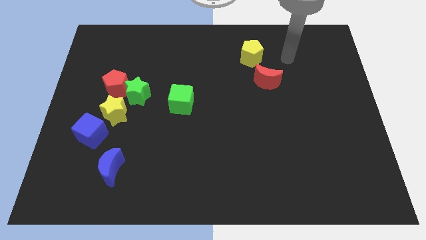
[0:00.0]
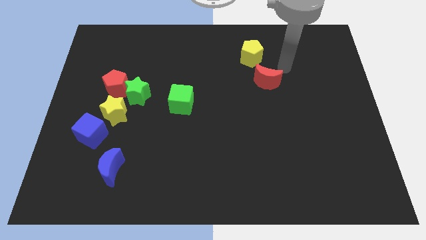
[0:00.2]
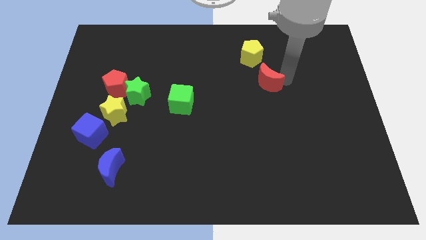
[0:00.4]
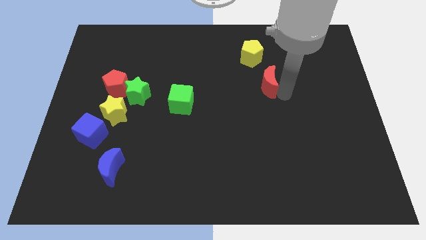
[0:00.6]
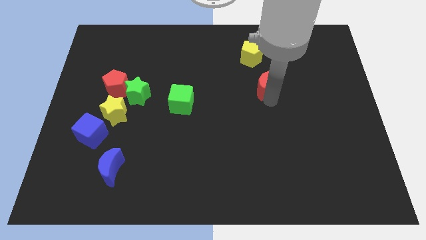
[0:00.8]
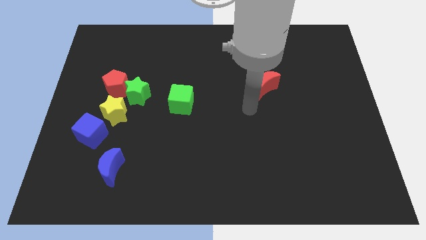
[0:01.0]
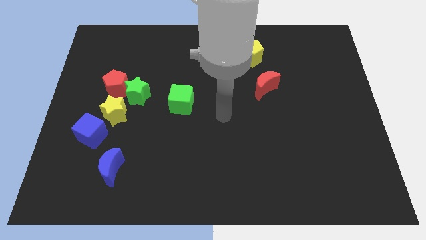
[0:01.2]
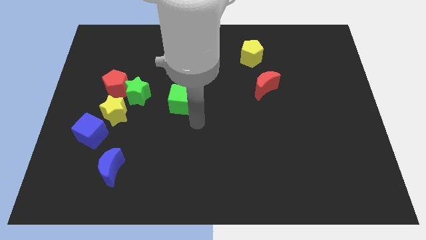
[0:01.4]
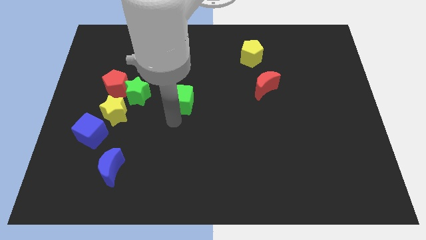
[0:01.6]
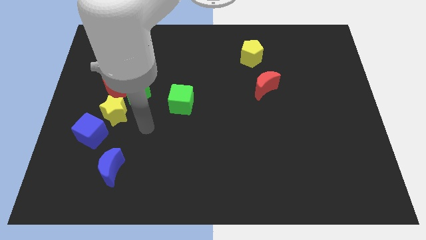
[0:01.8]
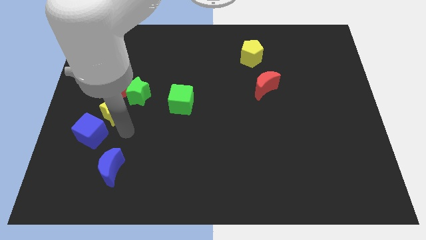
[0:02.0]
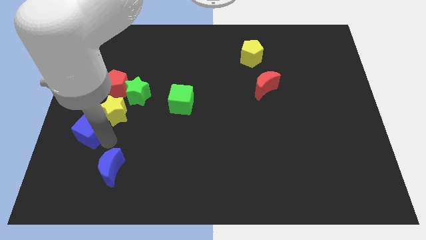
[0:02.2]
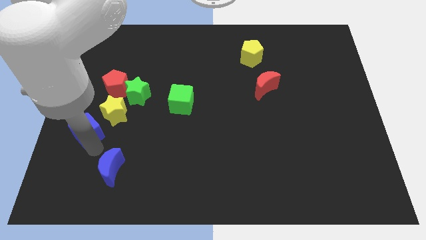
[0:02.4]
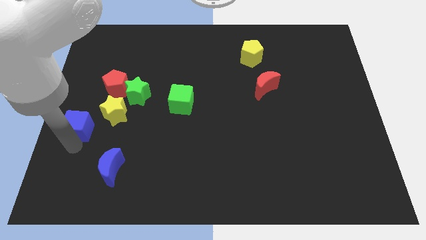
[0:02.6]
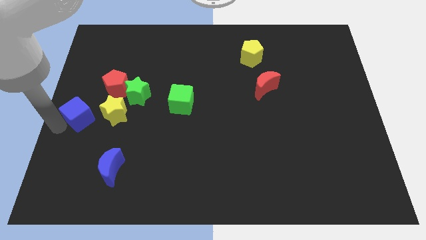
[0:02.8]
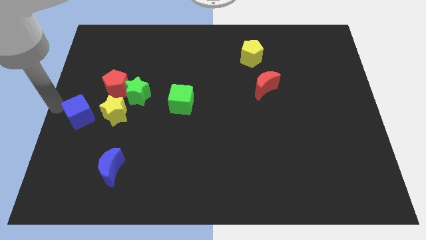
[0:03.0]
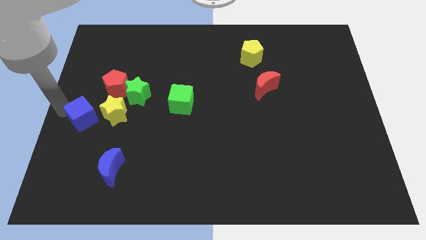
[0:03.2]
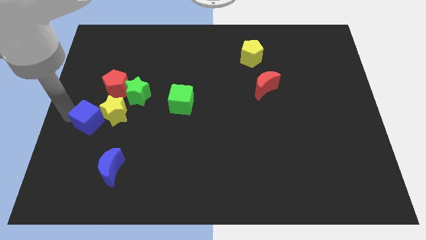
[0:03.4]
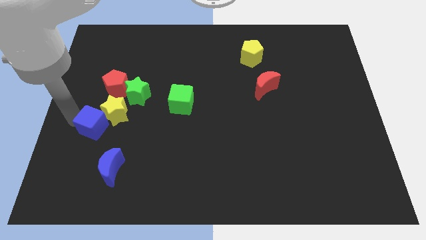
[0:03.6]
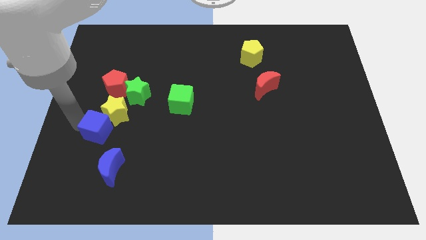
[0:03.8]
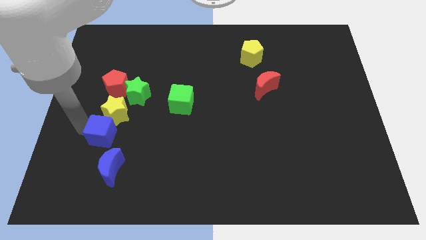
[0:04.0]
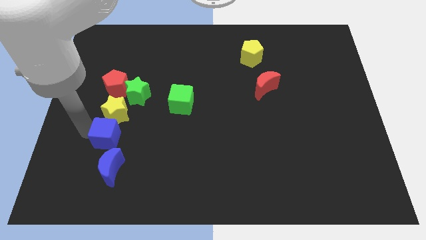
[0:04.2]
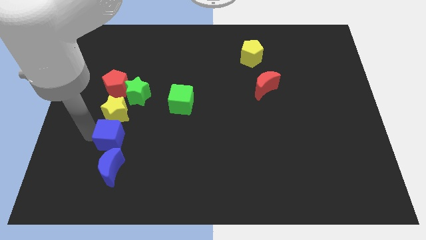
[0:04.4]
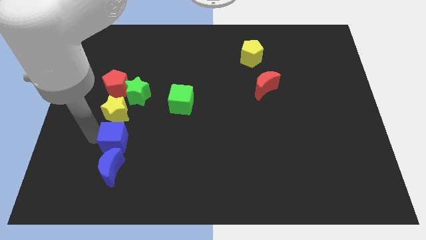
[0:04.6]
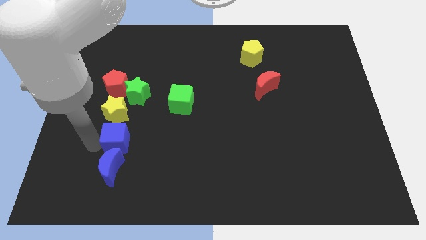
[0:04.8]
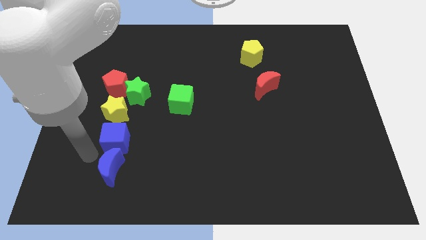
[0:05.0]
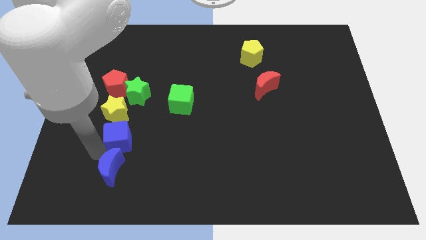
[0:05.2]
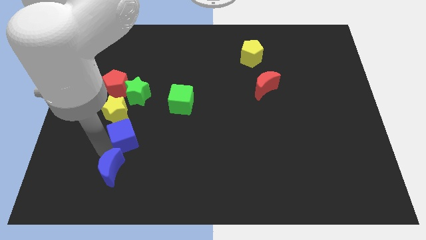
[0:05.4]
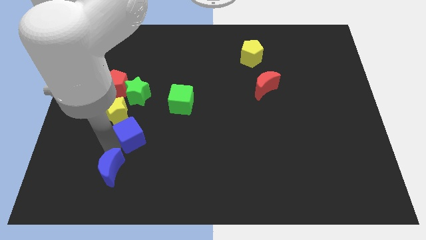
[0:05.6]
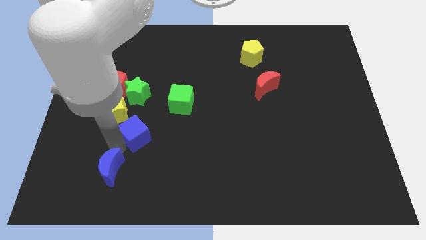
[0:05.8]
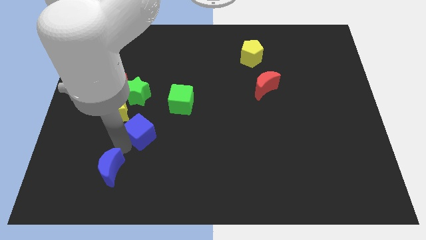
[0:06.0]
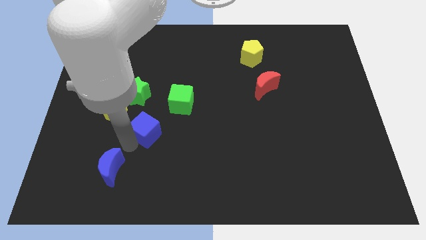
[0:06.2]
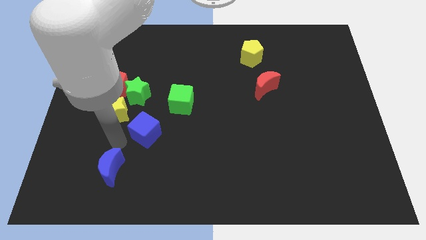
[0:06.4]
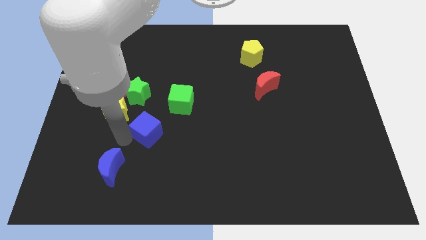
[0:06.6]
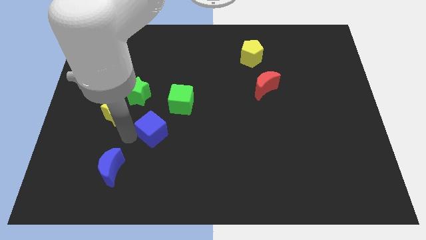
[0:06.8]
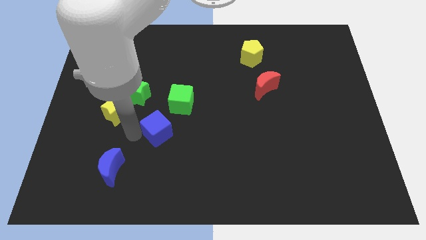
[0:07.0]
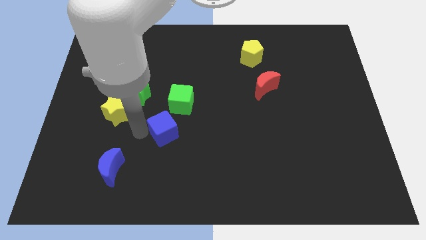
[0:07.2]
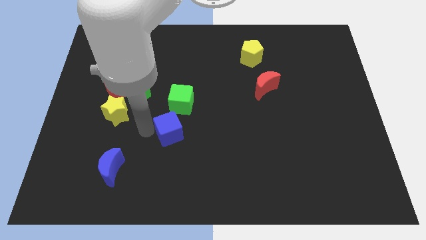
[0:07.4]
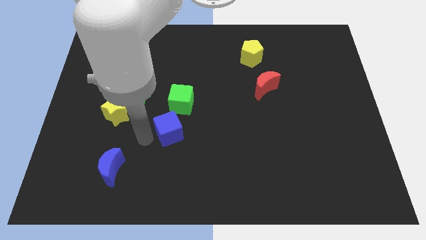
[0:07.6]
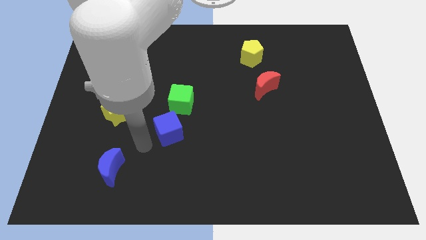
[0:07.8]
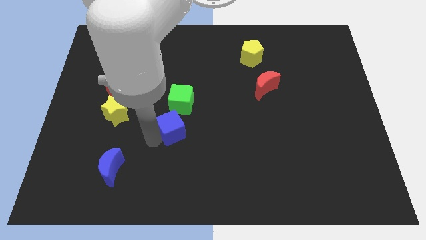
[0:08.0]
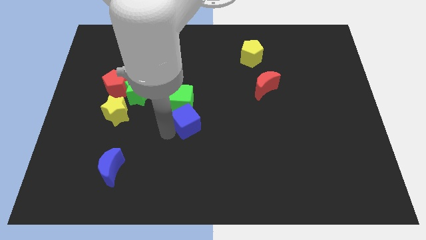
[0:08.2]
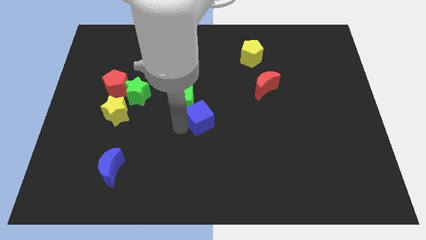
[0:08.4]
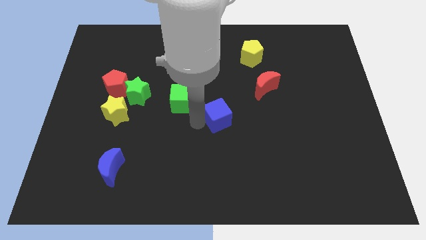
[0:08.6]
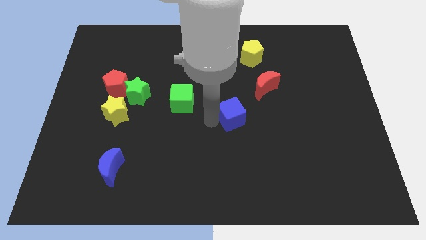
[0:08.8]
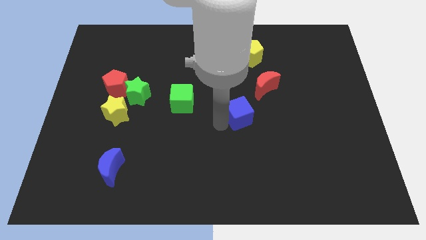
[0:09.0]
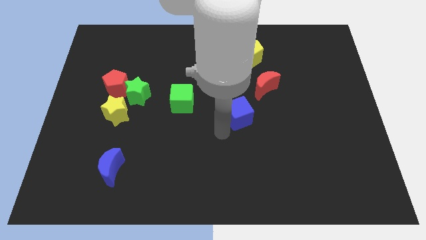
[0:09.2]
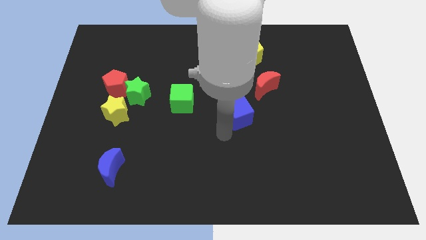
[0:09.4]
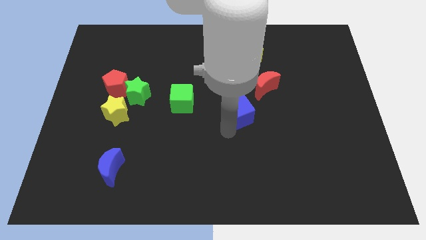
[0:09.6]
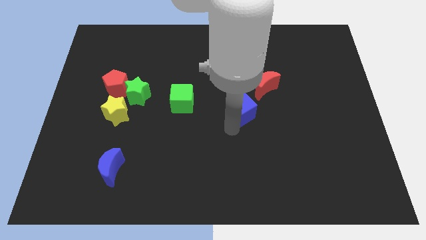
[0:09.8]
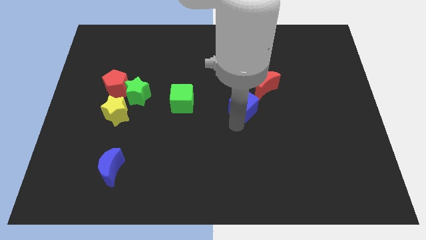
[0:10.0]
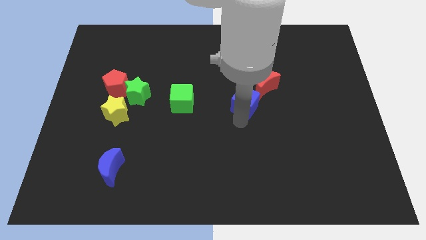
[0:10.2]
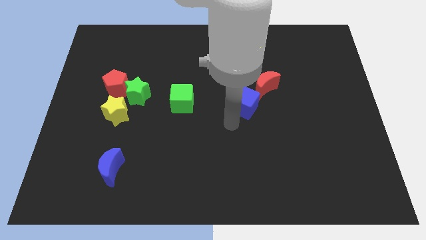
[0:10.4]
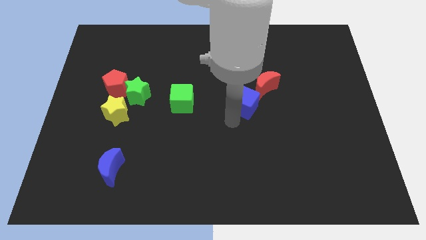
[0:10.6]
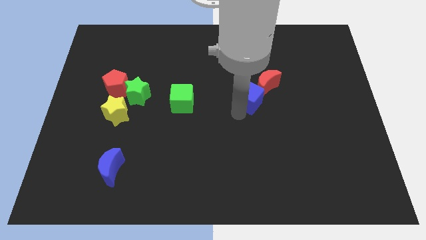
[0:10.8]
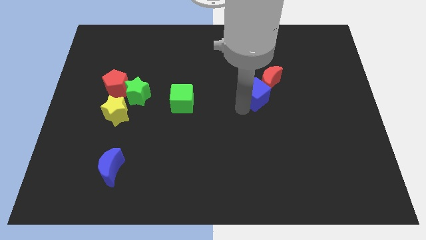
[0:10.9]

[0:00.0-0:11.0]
slide the blue cube to the red moon

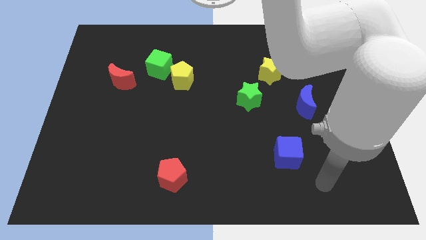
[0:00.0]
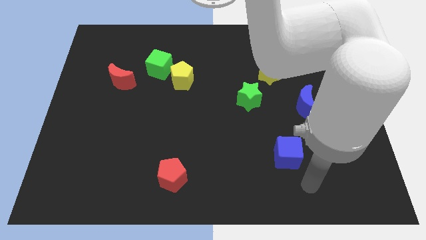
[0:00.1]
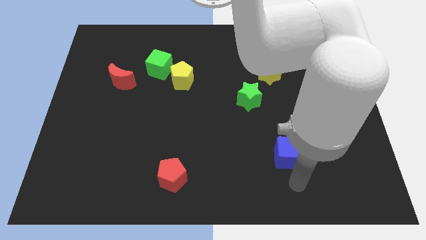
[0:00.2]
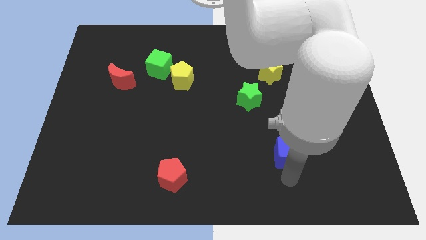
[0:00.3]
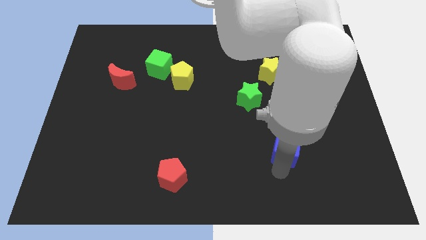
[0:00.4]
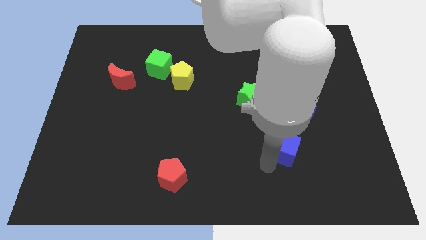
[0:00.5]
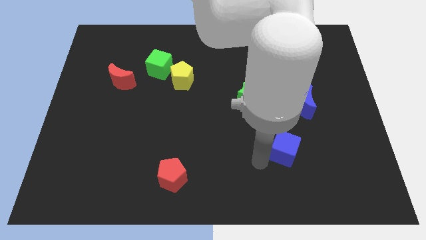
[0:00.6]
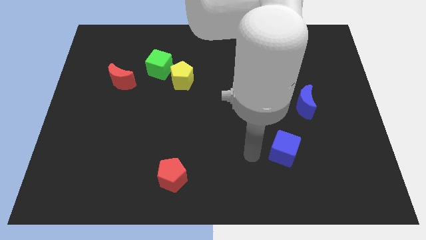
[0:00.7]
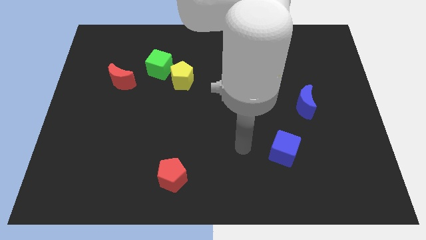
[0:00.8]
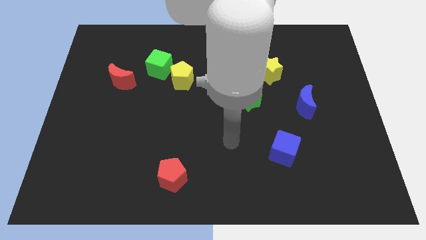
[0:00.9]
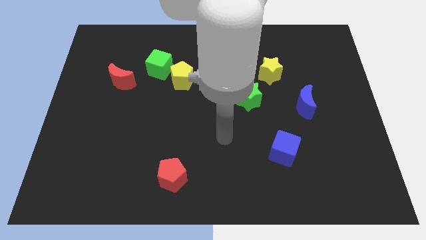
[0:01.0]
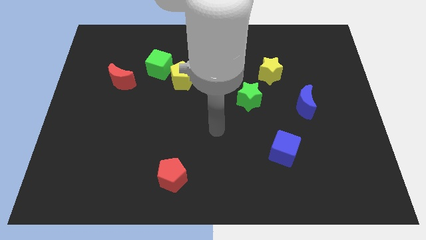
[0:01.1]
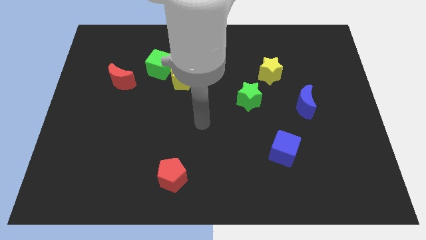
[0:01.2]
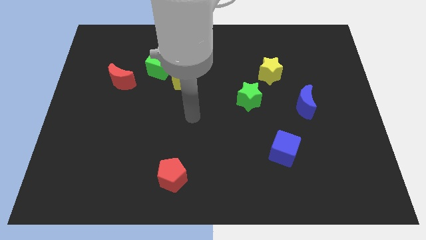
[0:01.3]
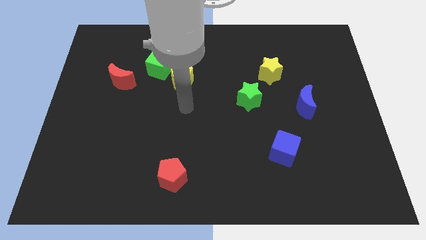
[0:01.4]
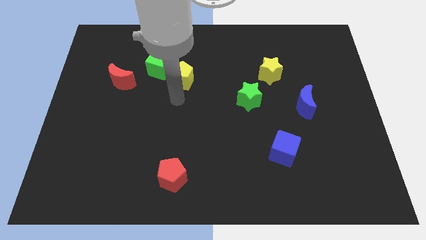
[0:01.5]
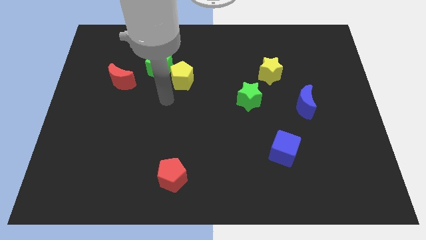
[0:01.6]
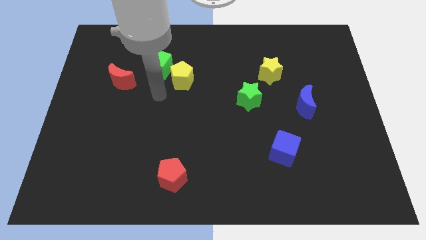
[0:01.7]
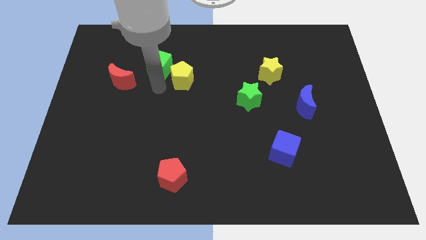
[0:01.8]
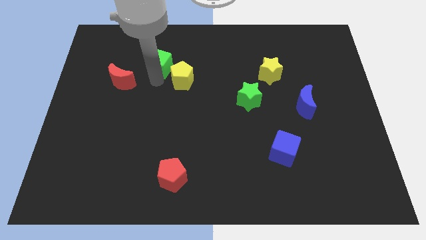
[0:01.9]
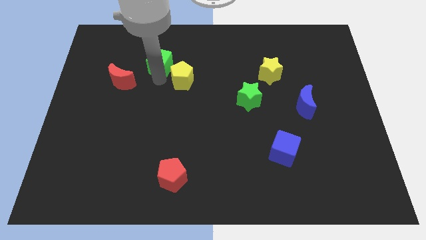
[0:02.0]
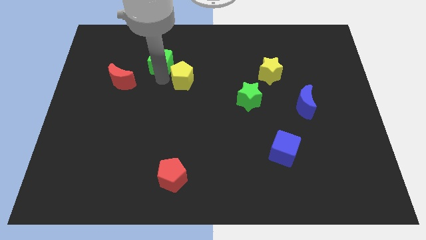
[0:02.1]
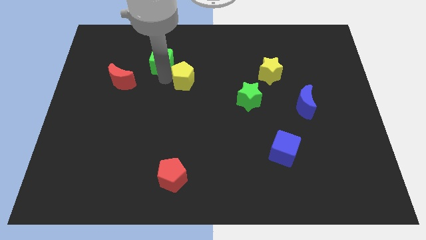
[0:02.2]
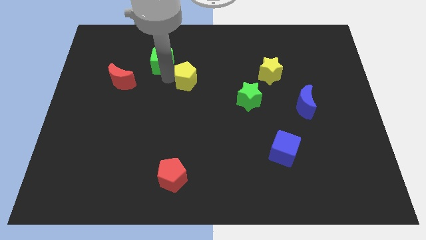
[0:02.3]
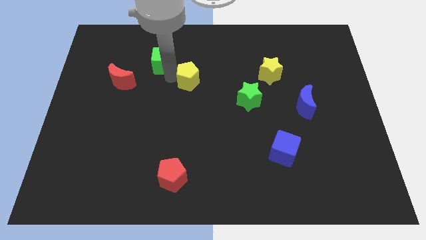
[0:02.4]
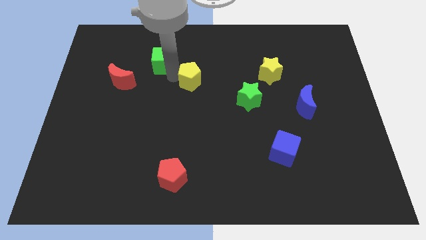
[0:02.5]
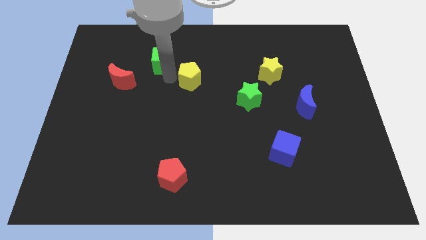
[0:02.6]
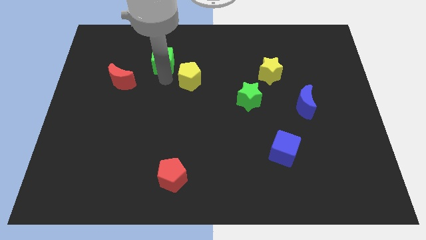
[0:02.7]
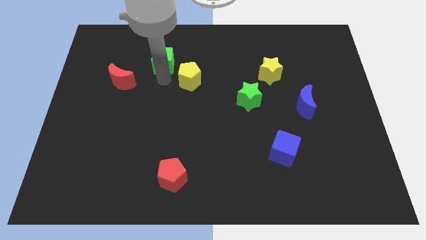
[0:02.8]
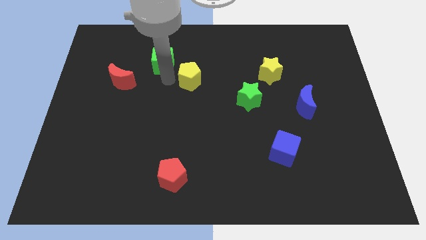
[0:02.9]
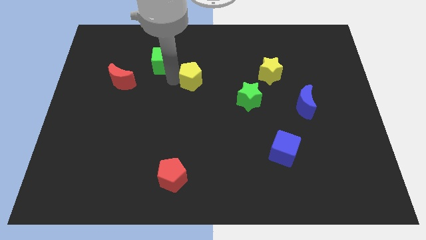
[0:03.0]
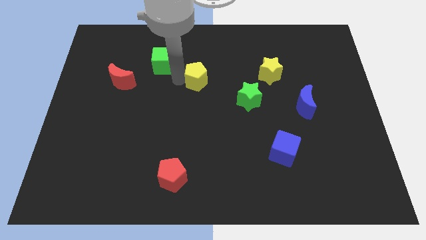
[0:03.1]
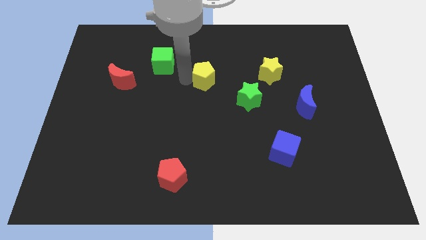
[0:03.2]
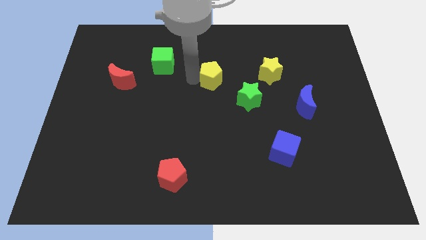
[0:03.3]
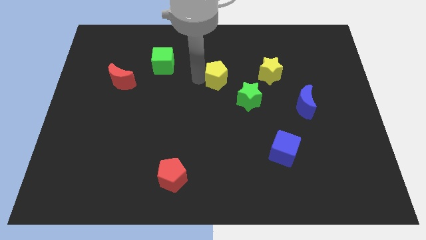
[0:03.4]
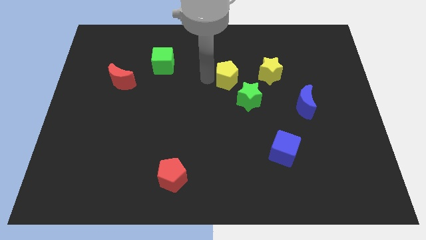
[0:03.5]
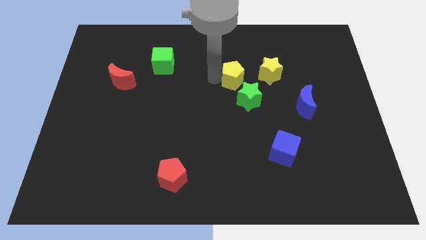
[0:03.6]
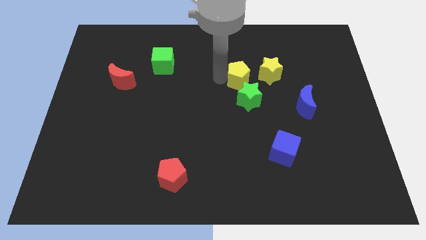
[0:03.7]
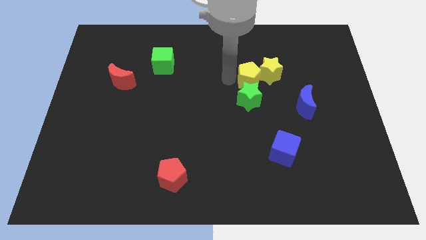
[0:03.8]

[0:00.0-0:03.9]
put the yellow pentagon close to the yellow star
